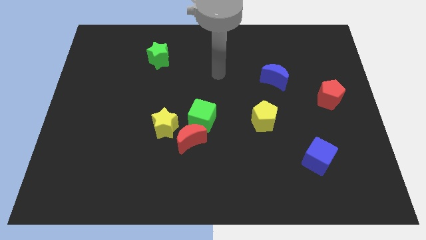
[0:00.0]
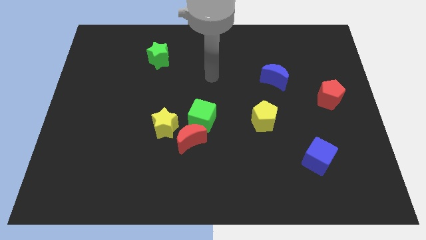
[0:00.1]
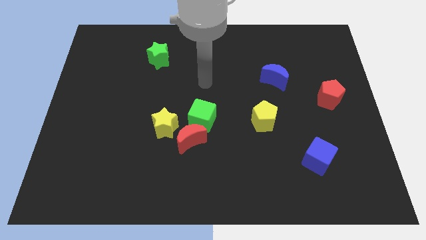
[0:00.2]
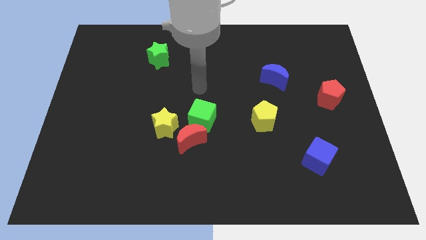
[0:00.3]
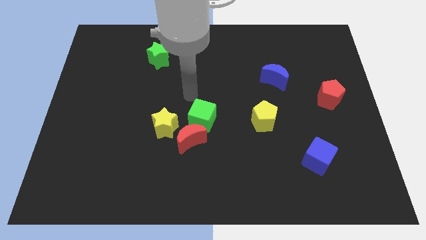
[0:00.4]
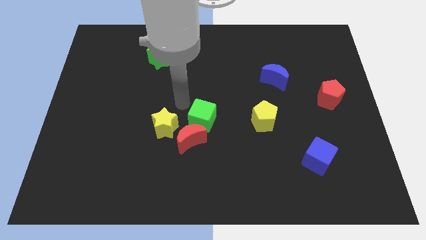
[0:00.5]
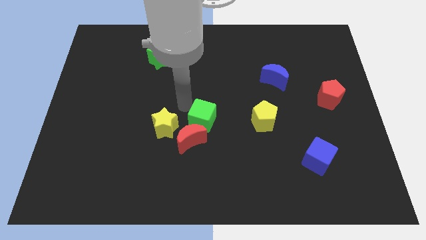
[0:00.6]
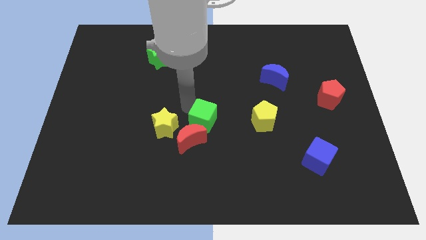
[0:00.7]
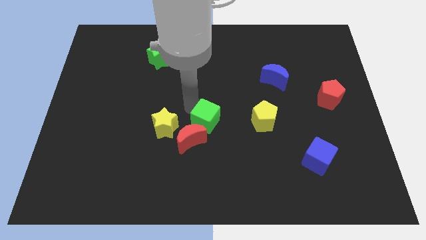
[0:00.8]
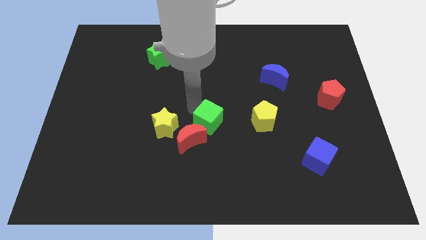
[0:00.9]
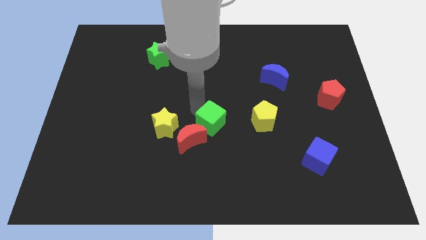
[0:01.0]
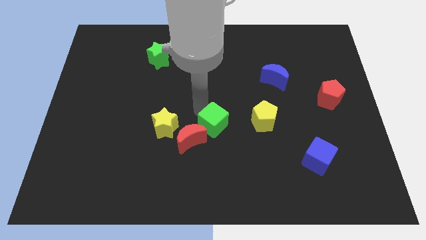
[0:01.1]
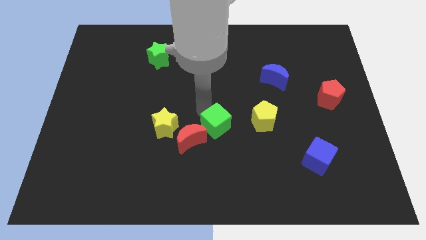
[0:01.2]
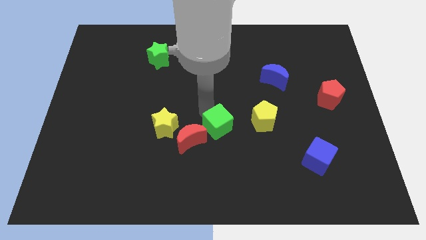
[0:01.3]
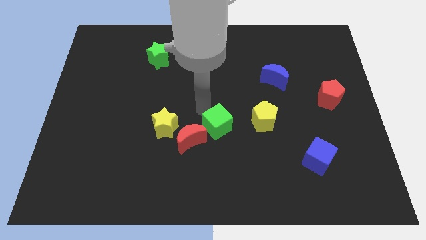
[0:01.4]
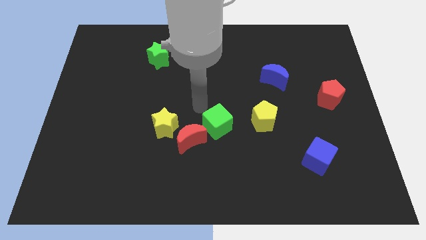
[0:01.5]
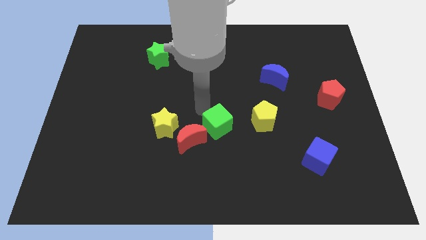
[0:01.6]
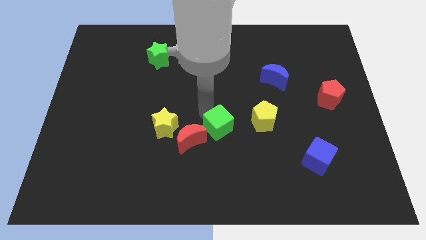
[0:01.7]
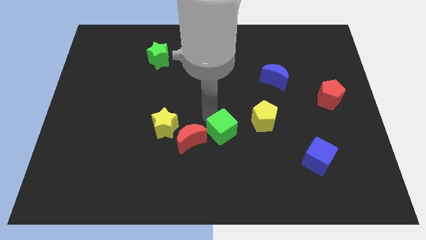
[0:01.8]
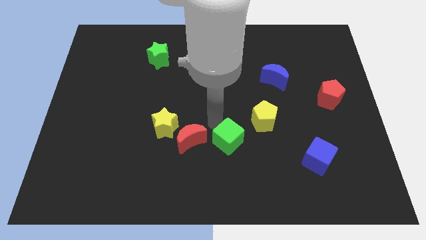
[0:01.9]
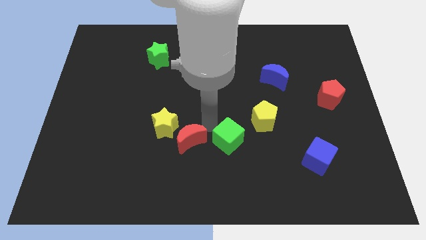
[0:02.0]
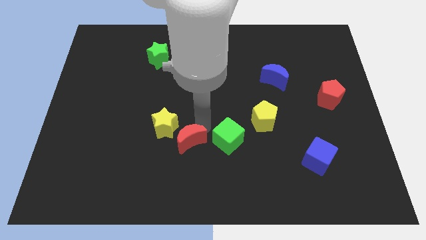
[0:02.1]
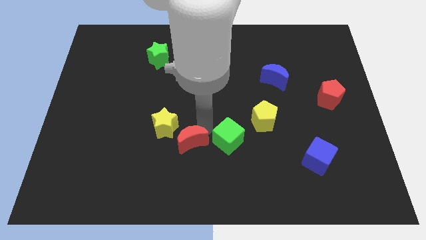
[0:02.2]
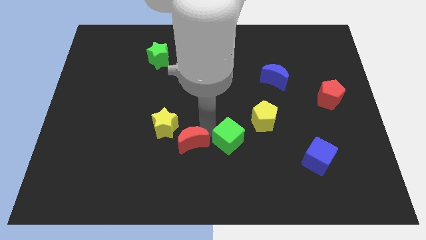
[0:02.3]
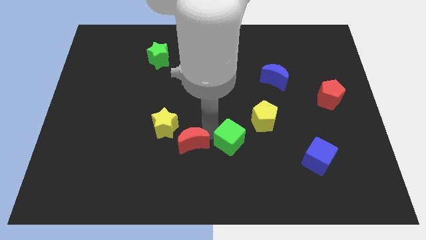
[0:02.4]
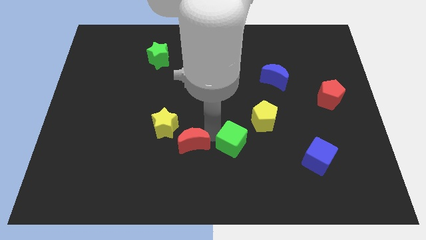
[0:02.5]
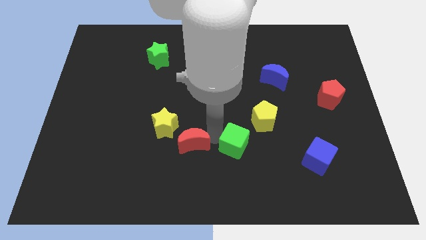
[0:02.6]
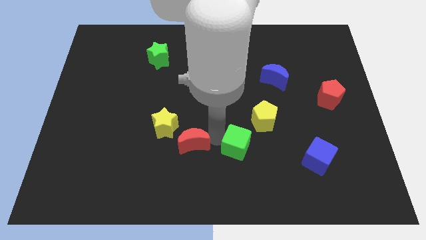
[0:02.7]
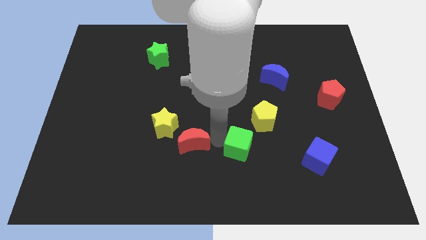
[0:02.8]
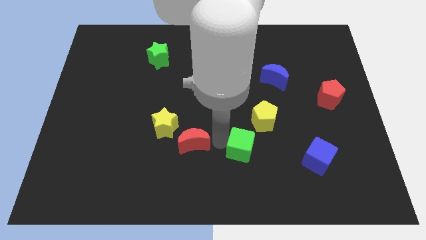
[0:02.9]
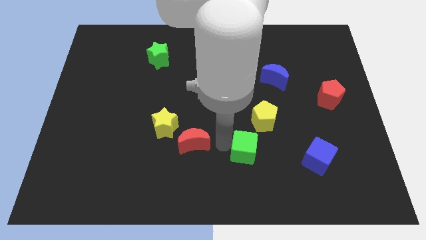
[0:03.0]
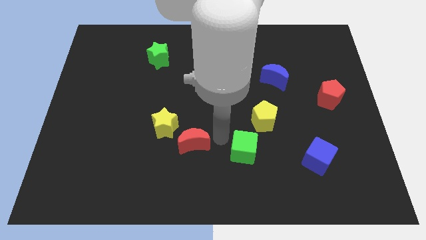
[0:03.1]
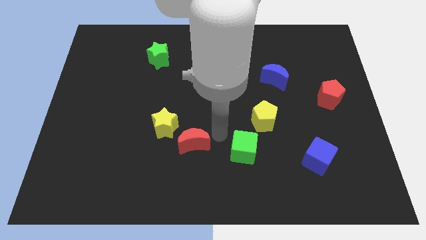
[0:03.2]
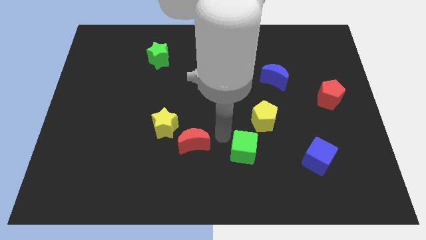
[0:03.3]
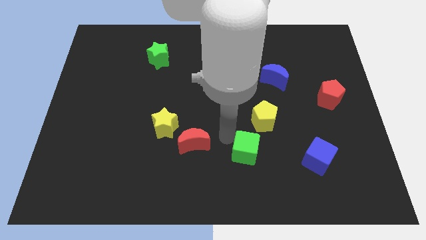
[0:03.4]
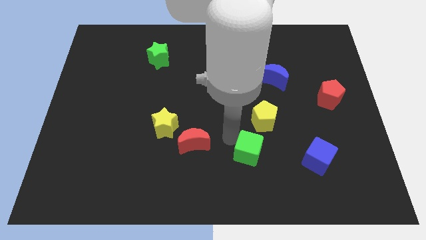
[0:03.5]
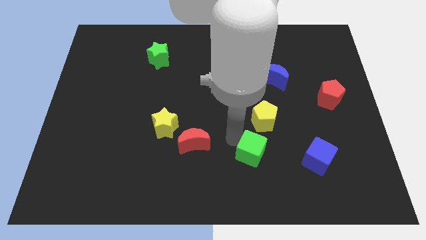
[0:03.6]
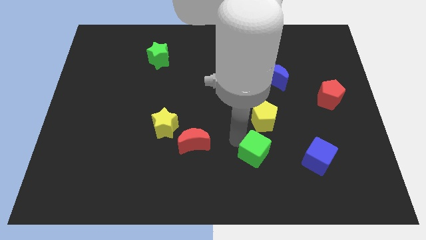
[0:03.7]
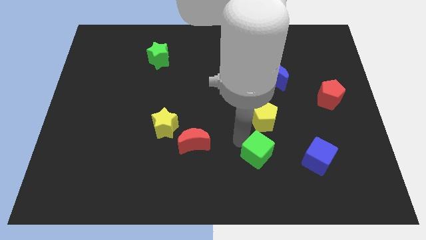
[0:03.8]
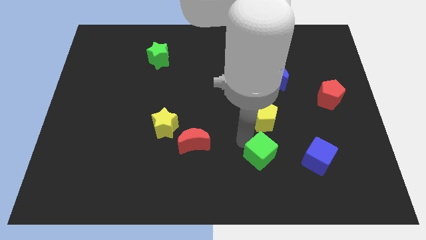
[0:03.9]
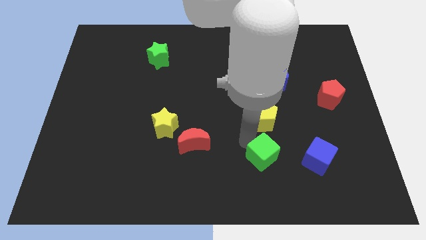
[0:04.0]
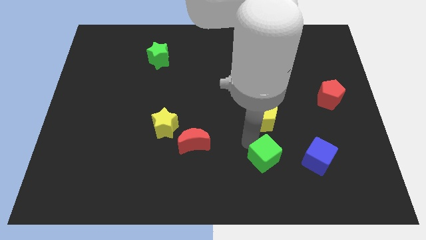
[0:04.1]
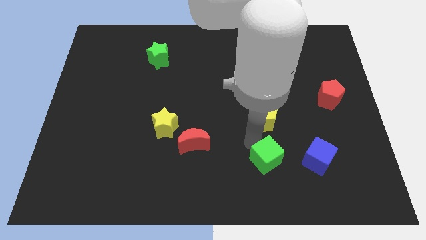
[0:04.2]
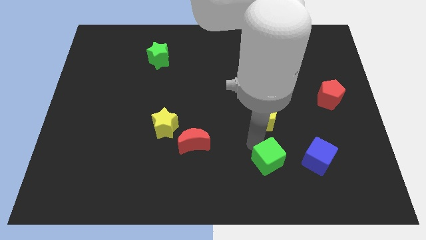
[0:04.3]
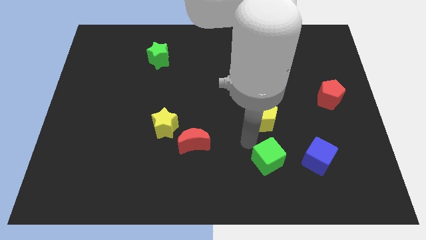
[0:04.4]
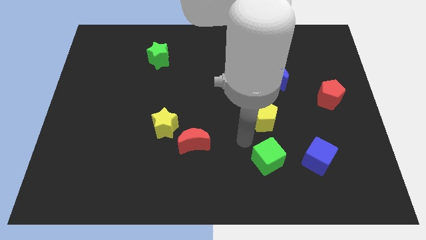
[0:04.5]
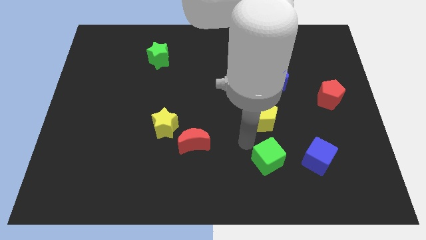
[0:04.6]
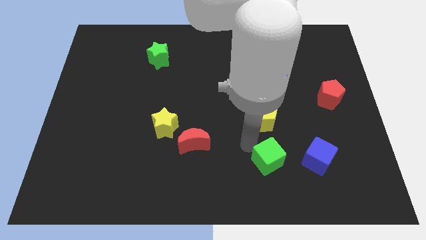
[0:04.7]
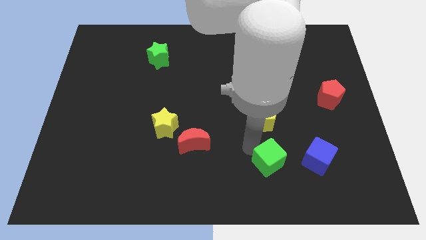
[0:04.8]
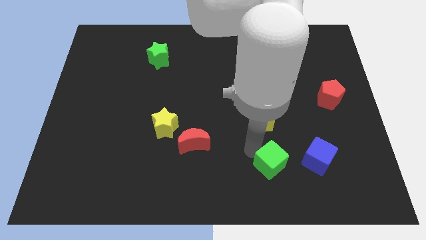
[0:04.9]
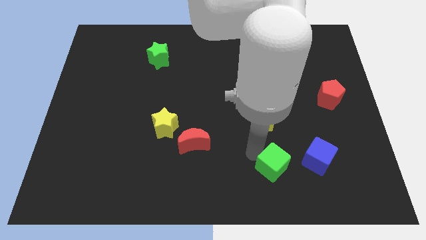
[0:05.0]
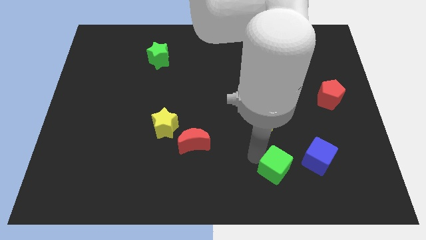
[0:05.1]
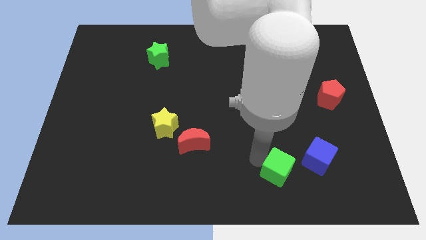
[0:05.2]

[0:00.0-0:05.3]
move the green cube to the bottom left side of the blue cube

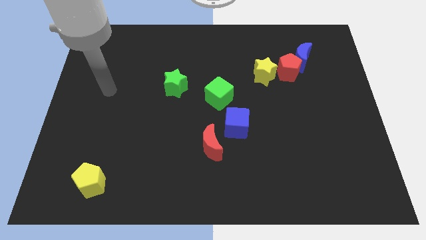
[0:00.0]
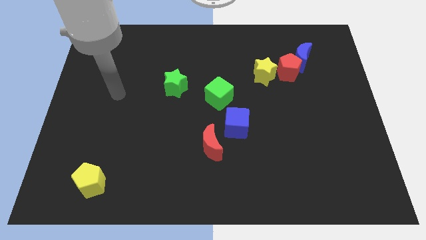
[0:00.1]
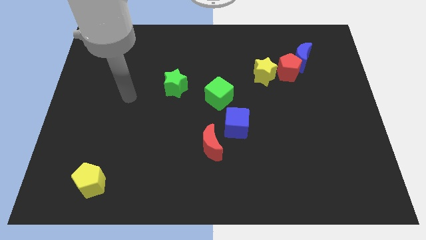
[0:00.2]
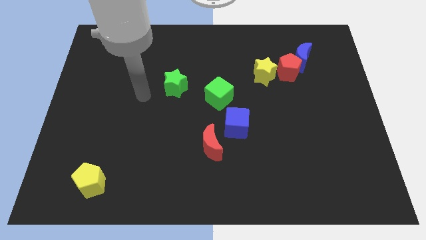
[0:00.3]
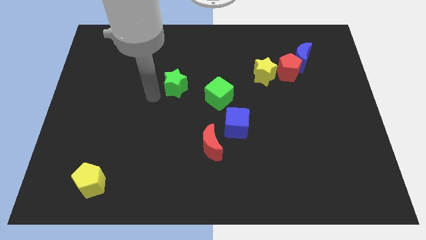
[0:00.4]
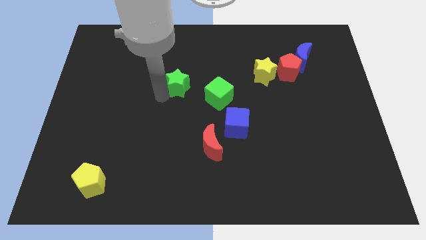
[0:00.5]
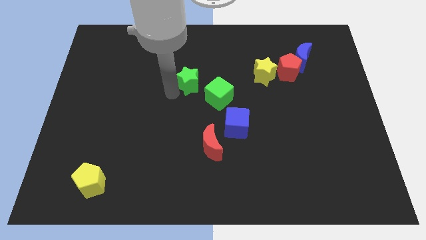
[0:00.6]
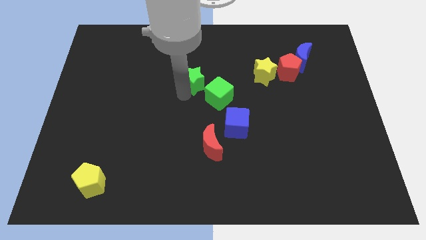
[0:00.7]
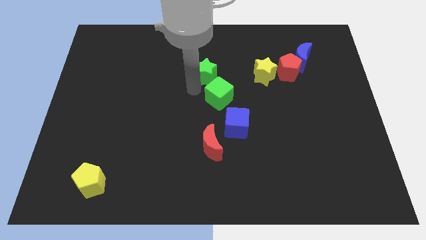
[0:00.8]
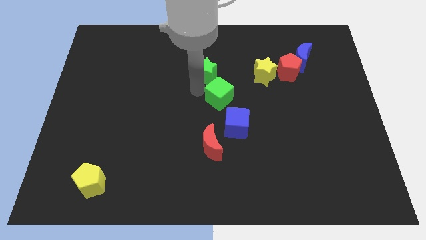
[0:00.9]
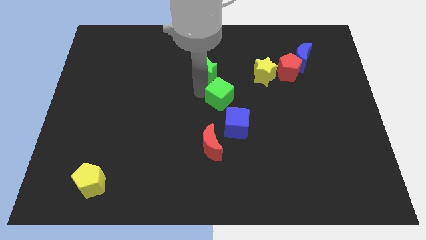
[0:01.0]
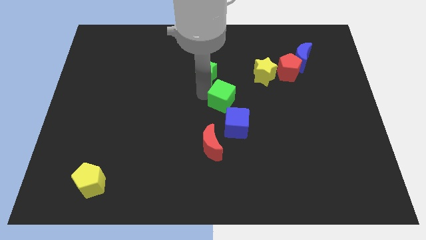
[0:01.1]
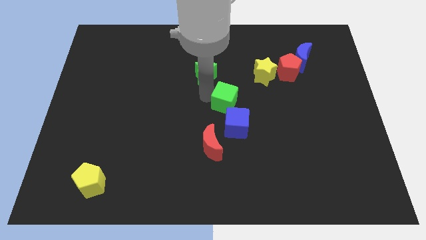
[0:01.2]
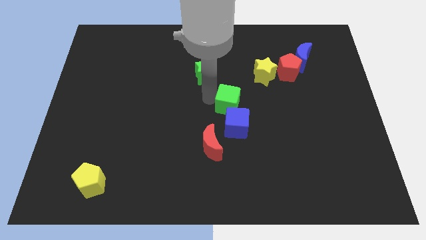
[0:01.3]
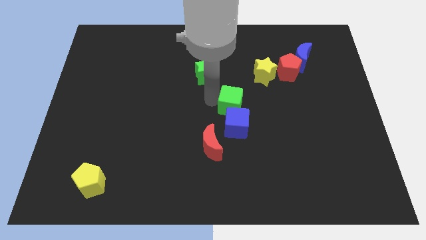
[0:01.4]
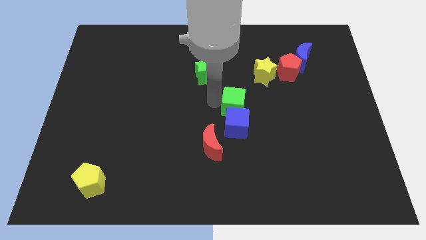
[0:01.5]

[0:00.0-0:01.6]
move the green cube diagonally up and to the right of the blue cube

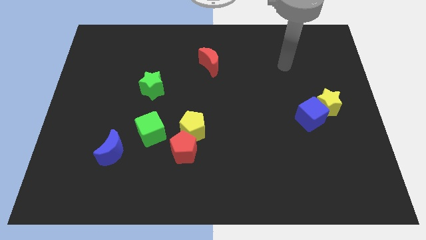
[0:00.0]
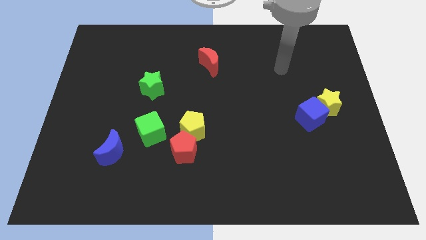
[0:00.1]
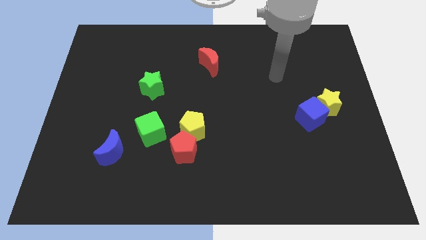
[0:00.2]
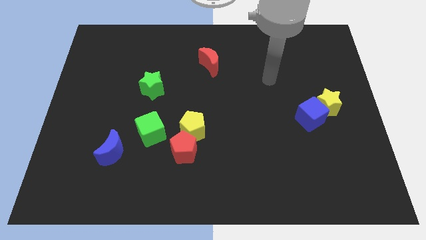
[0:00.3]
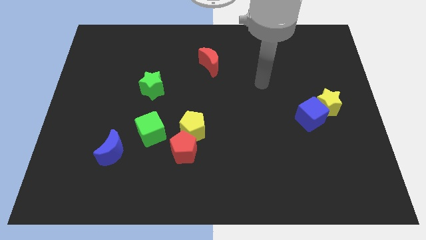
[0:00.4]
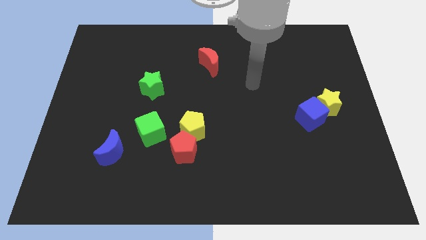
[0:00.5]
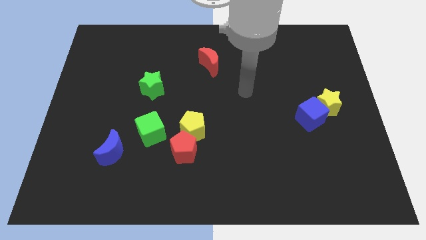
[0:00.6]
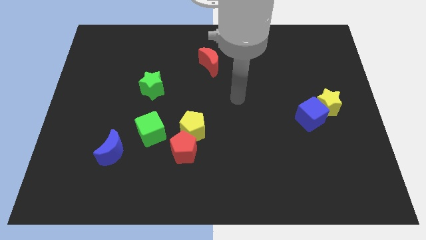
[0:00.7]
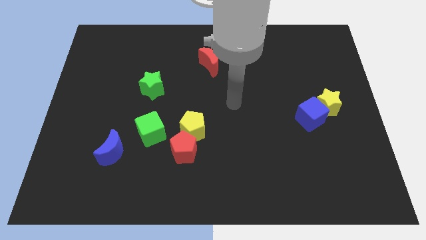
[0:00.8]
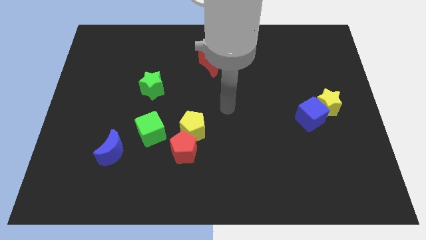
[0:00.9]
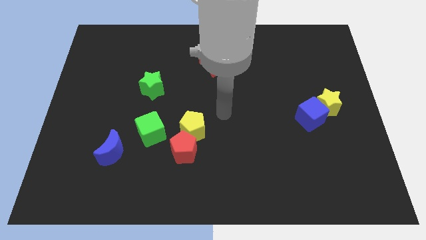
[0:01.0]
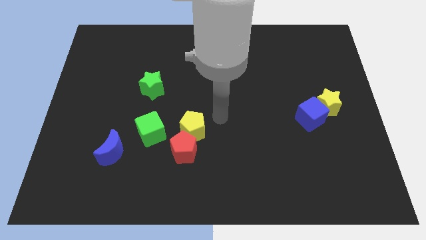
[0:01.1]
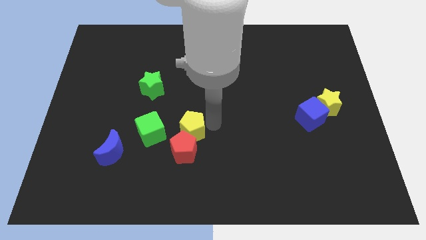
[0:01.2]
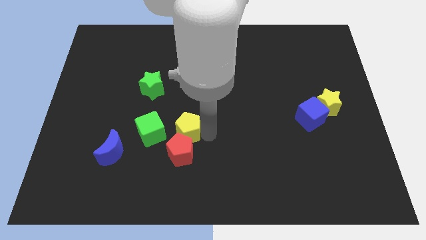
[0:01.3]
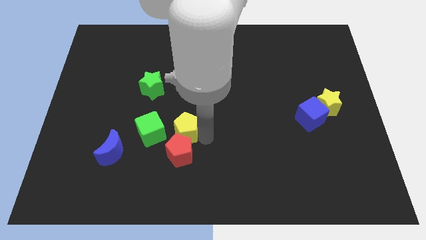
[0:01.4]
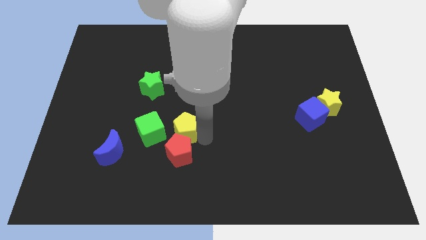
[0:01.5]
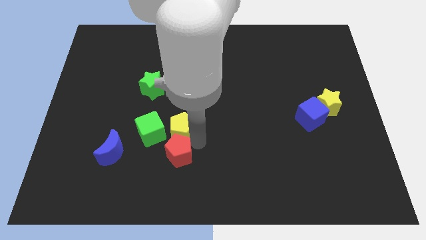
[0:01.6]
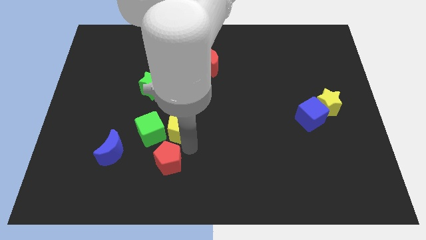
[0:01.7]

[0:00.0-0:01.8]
push the red pentagon to the bottom side of the green cube
